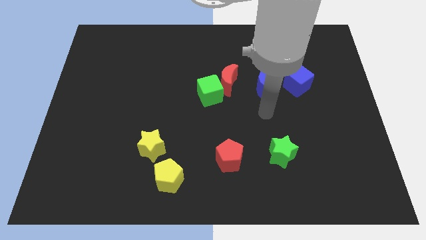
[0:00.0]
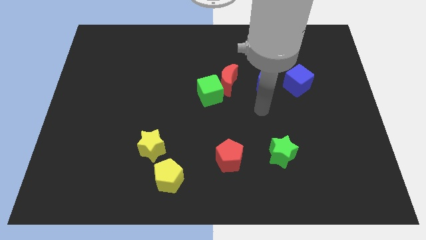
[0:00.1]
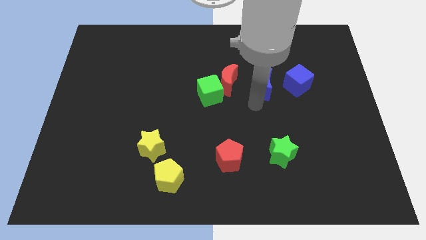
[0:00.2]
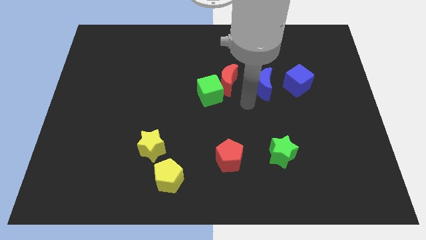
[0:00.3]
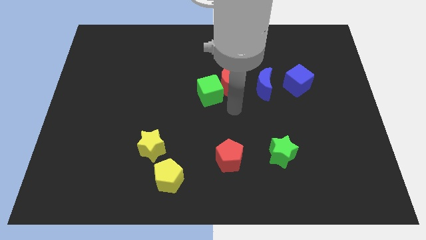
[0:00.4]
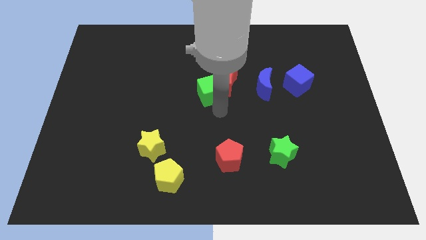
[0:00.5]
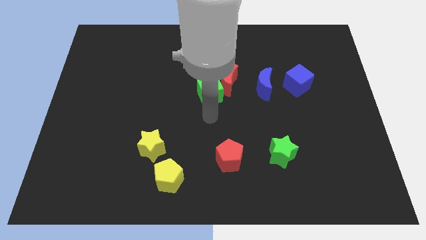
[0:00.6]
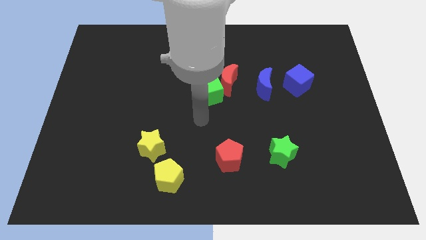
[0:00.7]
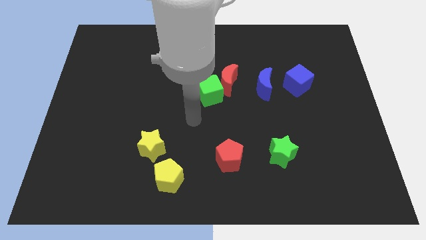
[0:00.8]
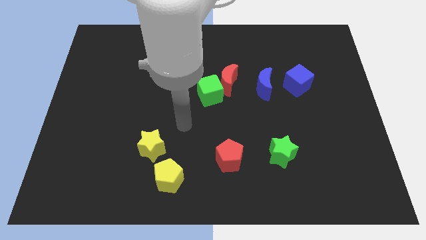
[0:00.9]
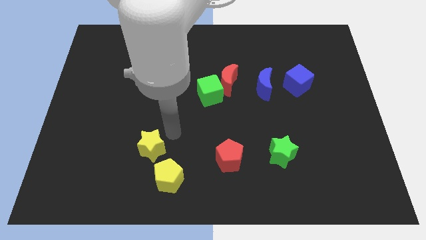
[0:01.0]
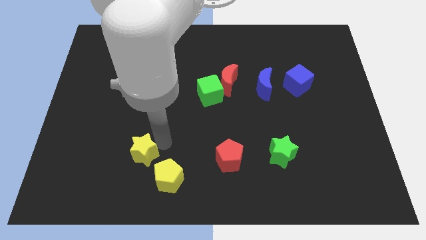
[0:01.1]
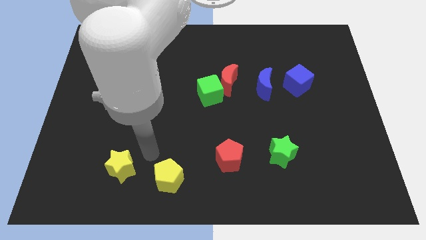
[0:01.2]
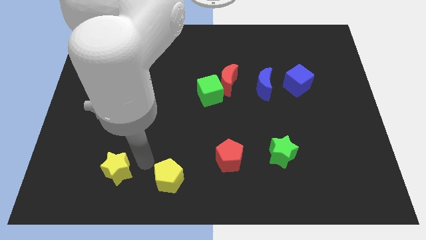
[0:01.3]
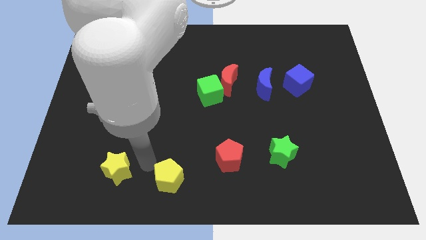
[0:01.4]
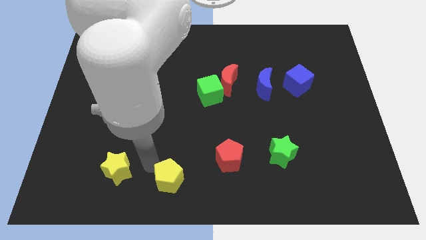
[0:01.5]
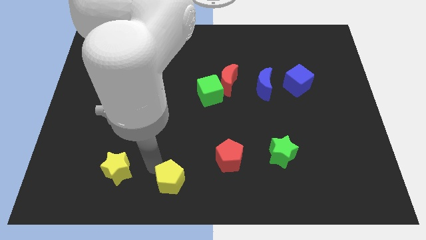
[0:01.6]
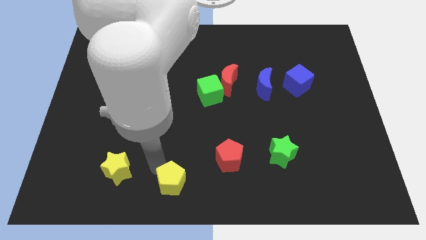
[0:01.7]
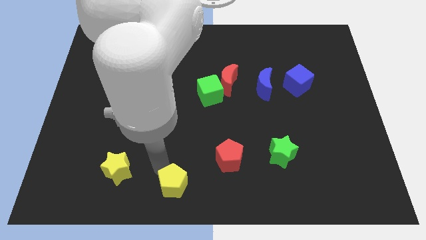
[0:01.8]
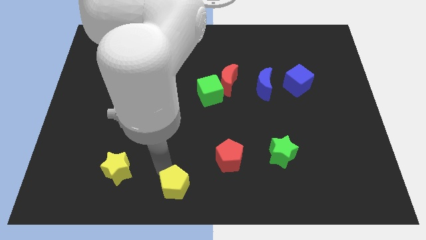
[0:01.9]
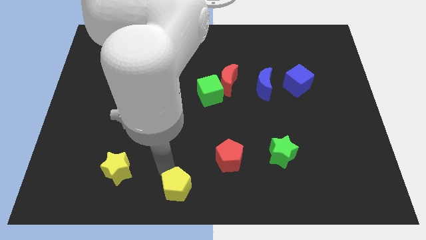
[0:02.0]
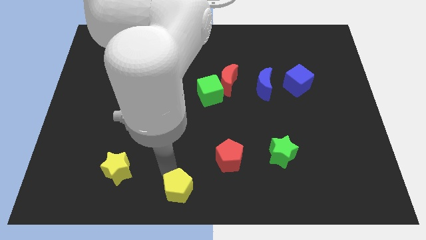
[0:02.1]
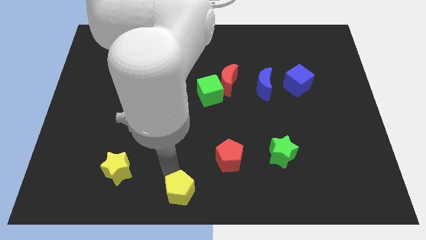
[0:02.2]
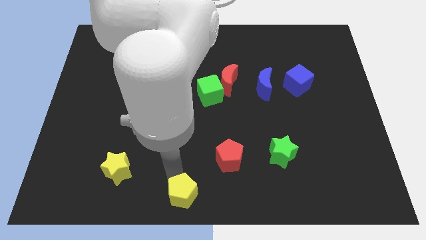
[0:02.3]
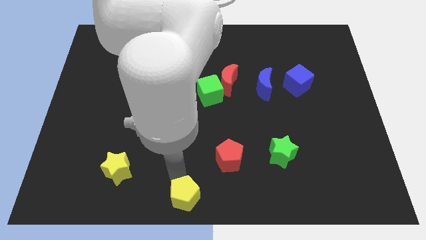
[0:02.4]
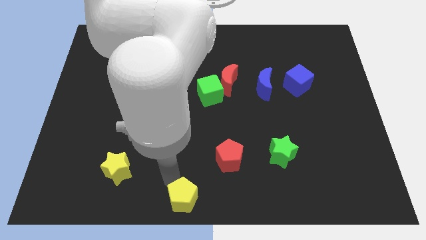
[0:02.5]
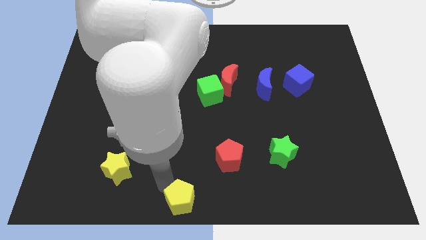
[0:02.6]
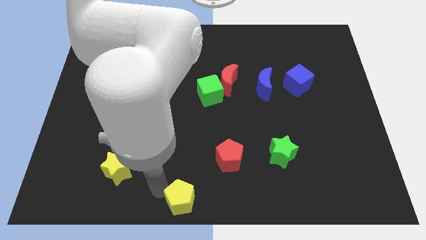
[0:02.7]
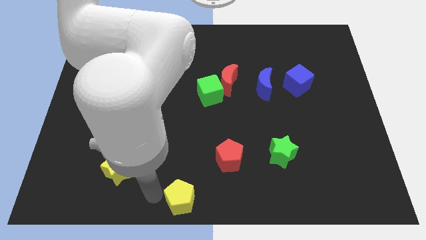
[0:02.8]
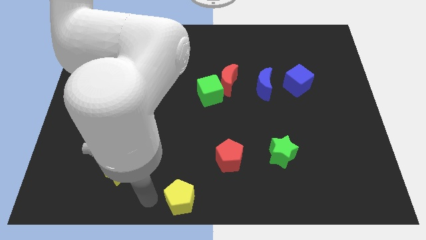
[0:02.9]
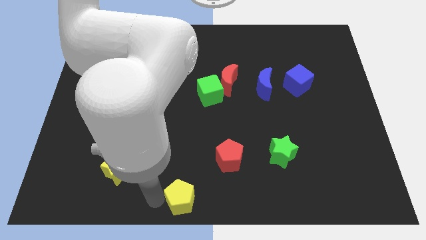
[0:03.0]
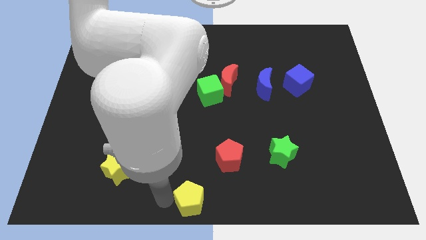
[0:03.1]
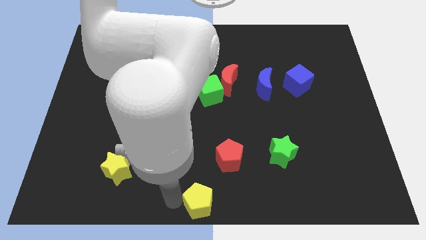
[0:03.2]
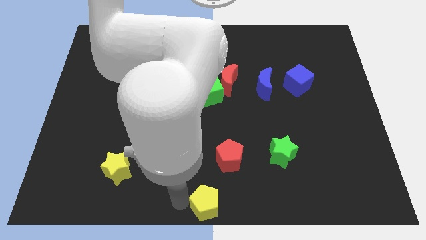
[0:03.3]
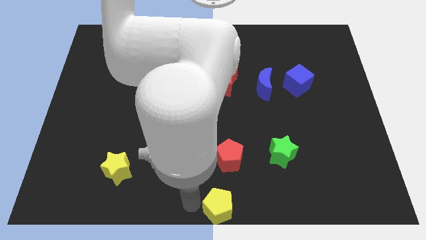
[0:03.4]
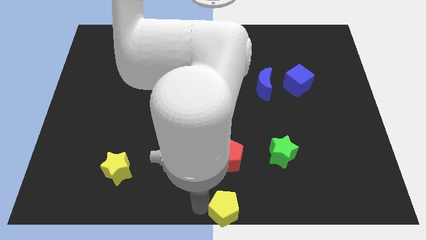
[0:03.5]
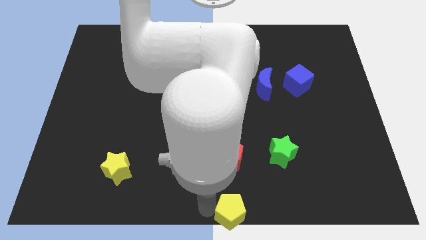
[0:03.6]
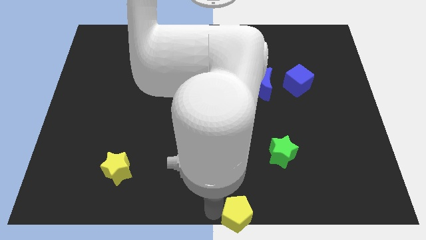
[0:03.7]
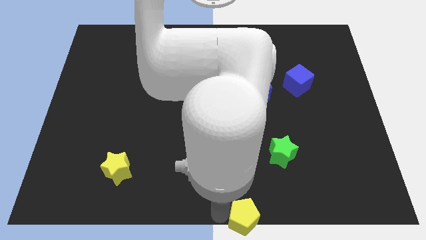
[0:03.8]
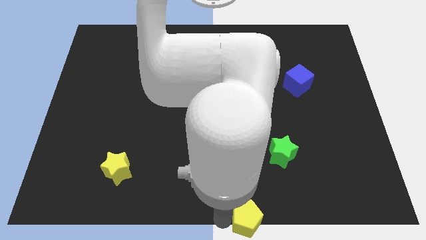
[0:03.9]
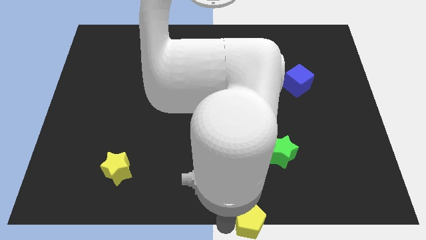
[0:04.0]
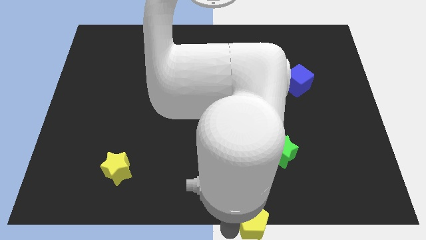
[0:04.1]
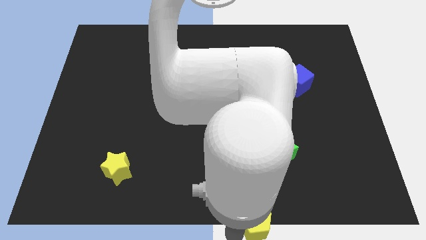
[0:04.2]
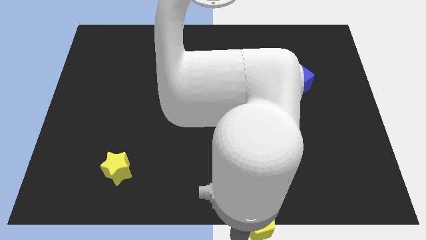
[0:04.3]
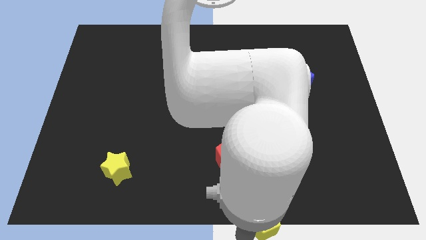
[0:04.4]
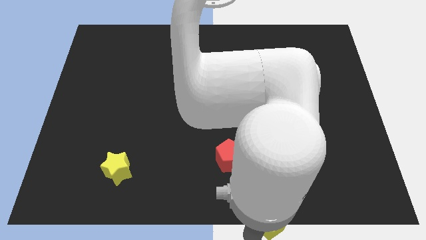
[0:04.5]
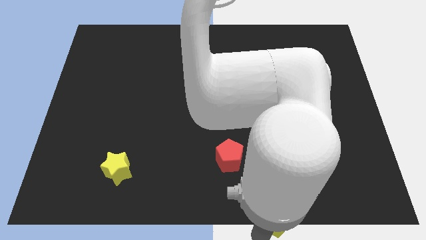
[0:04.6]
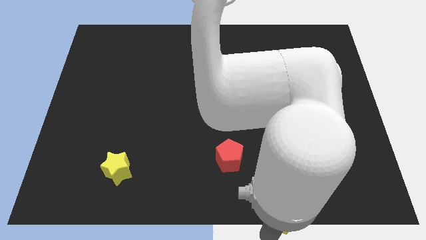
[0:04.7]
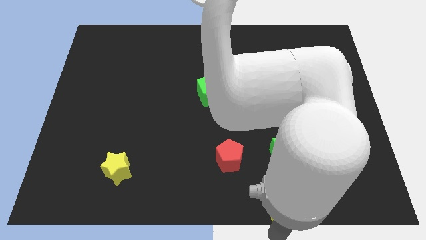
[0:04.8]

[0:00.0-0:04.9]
slide the yellow pentagon to the right

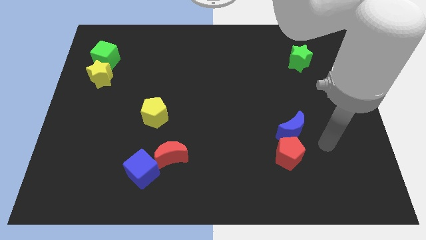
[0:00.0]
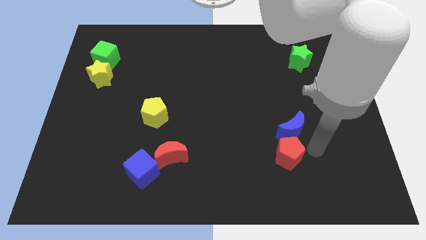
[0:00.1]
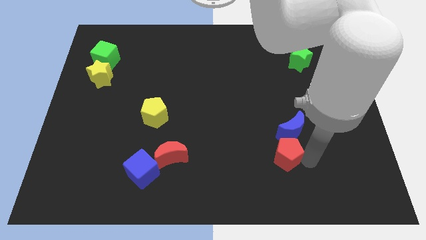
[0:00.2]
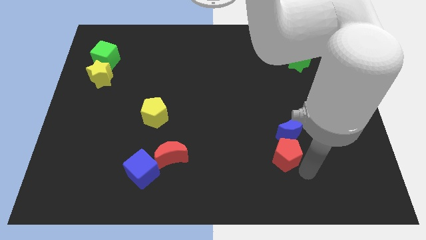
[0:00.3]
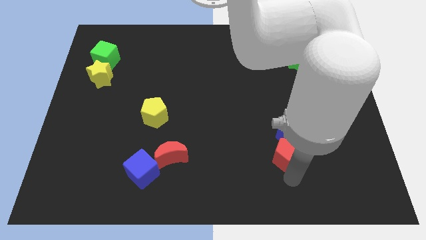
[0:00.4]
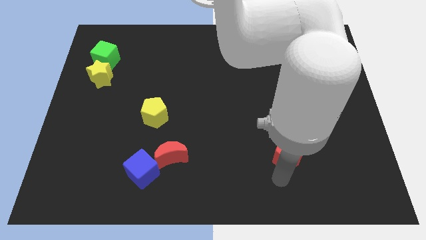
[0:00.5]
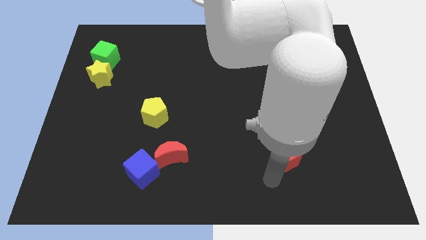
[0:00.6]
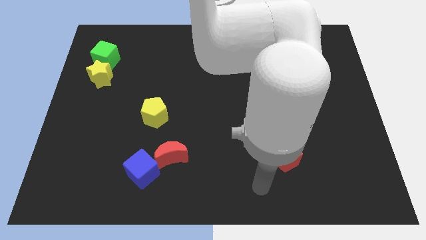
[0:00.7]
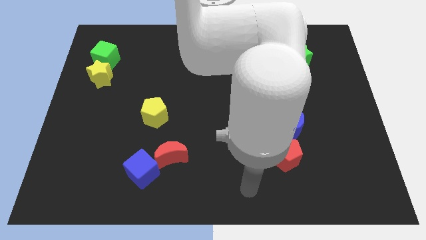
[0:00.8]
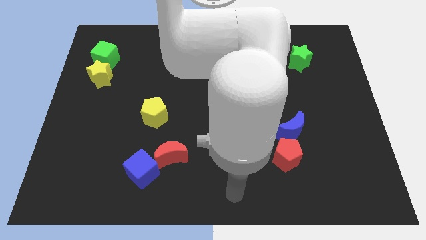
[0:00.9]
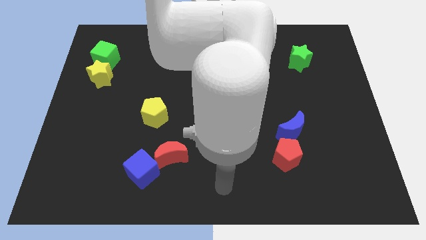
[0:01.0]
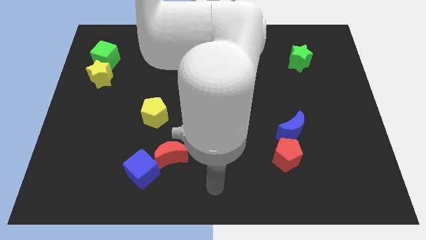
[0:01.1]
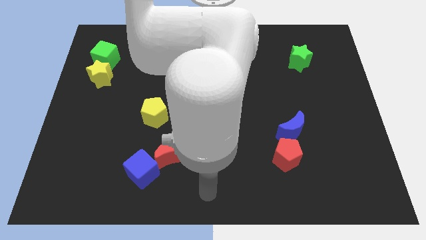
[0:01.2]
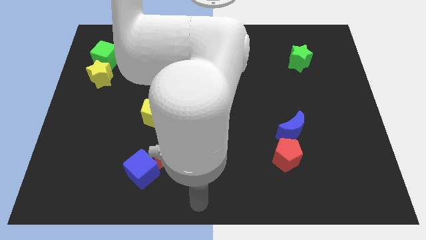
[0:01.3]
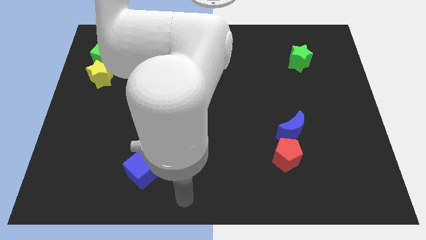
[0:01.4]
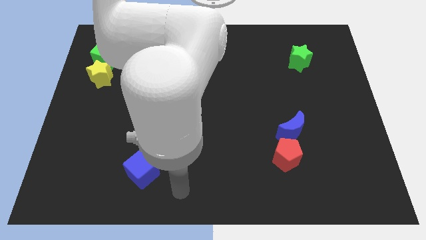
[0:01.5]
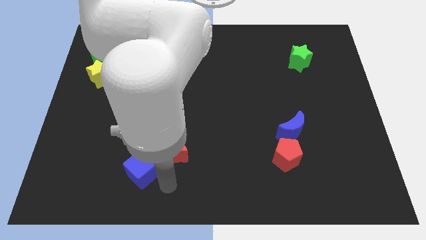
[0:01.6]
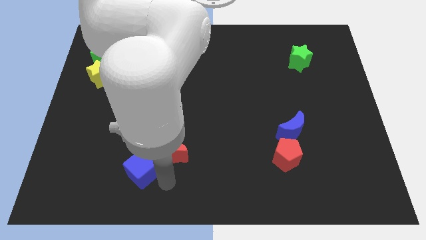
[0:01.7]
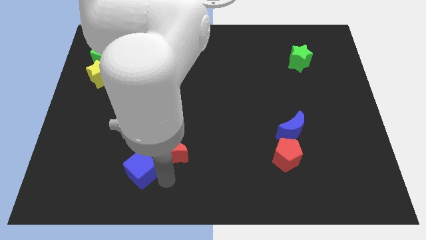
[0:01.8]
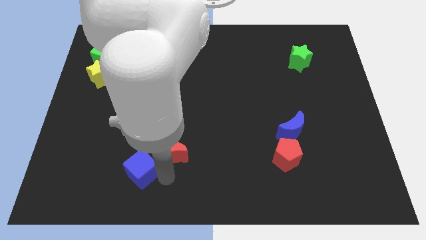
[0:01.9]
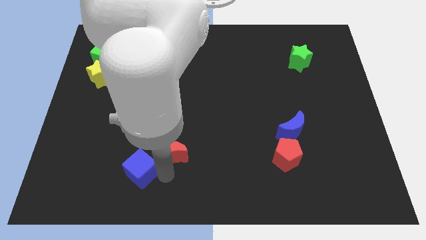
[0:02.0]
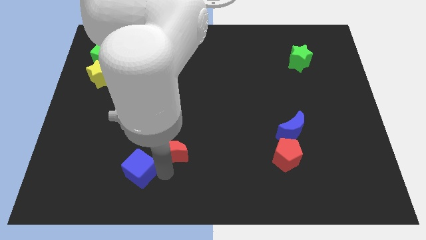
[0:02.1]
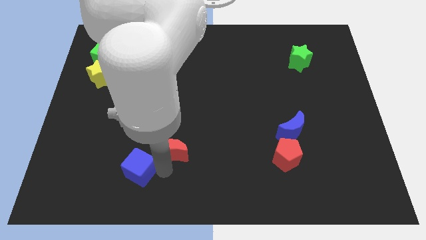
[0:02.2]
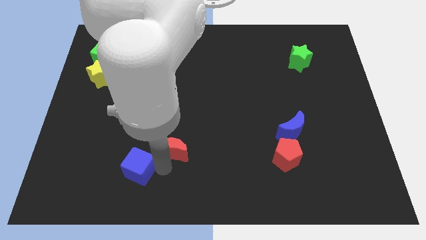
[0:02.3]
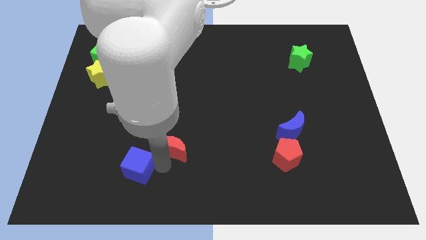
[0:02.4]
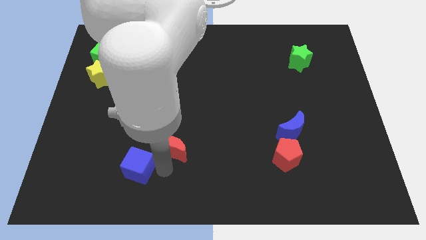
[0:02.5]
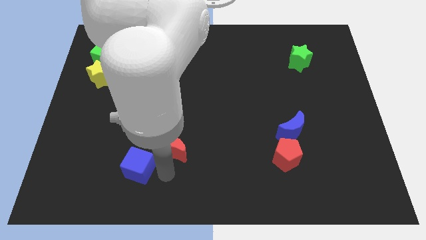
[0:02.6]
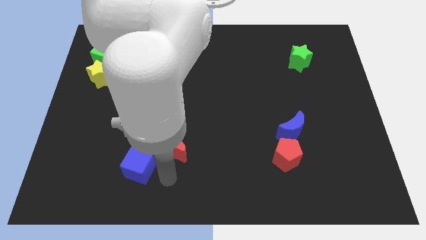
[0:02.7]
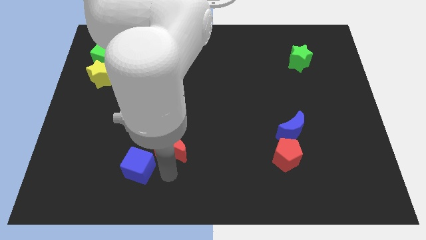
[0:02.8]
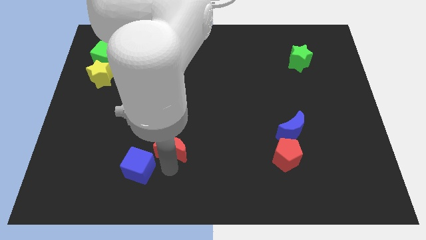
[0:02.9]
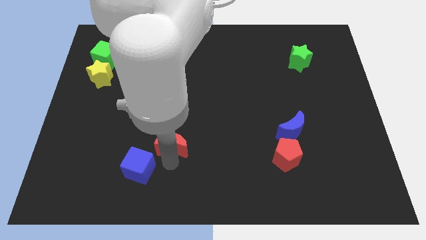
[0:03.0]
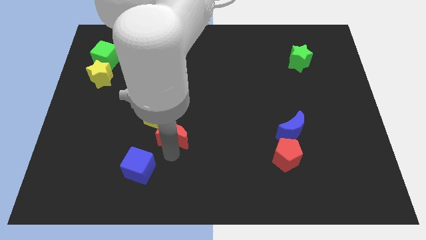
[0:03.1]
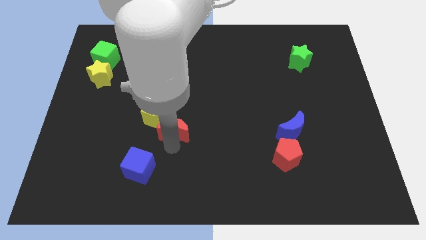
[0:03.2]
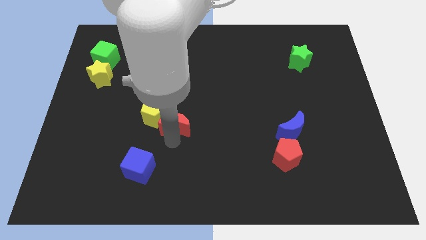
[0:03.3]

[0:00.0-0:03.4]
push the red moon slightly up
